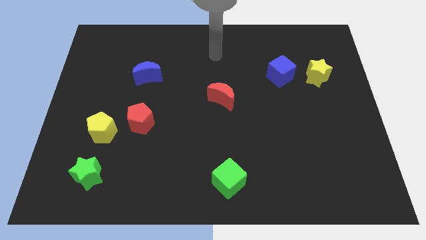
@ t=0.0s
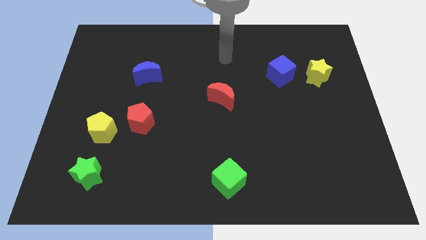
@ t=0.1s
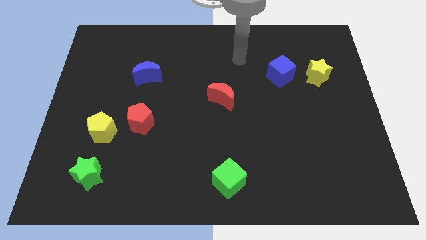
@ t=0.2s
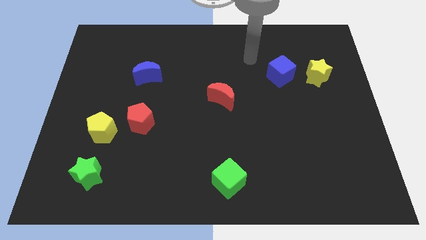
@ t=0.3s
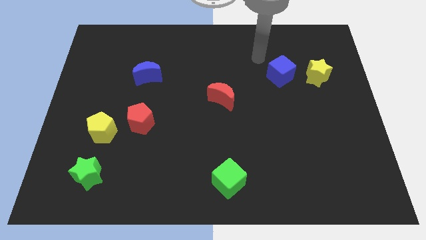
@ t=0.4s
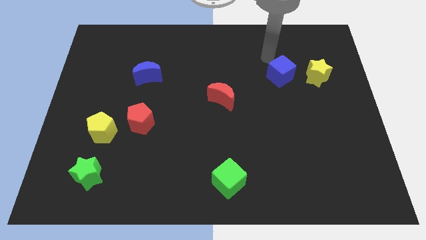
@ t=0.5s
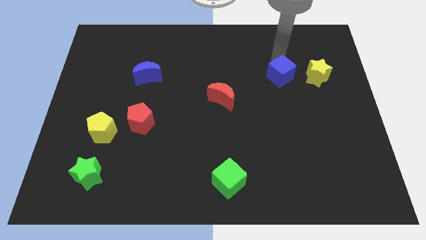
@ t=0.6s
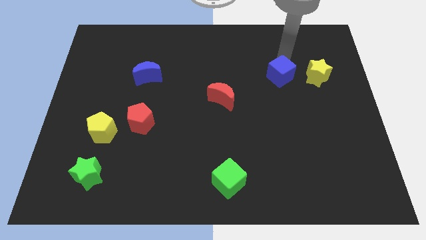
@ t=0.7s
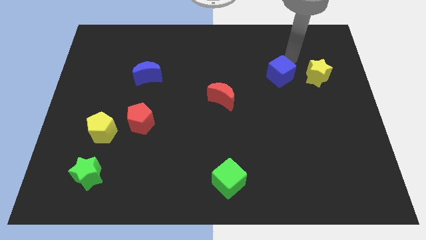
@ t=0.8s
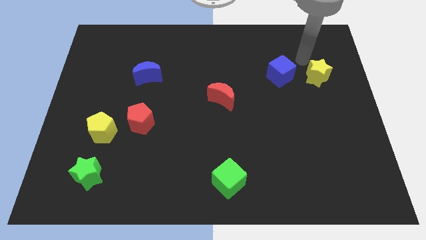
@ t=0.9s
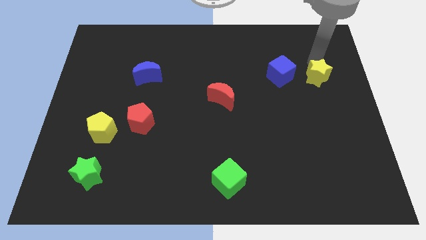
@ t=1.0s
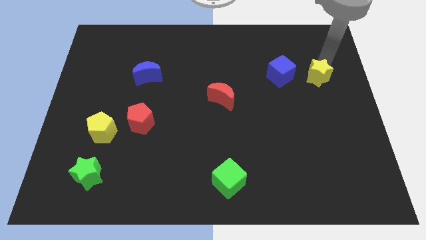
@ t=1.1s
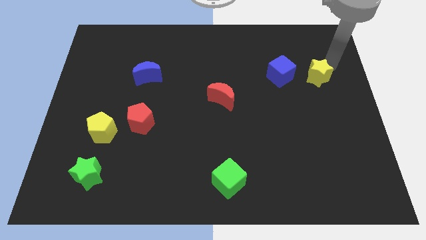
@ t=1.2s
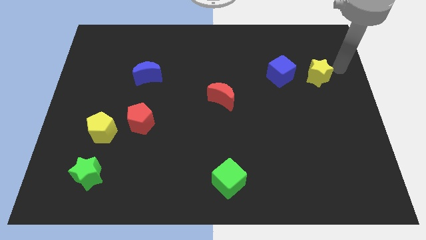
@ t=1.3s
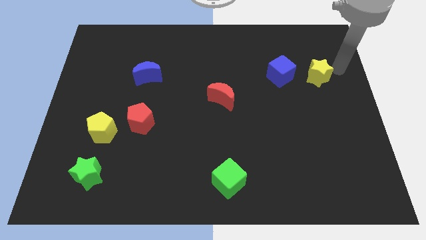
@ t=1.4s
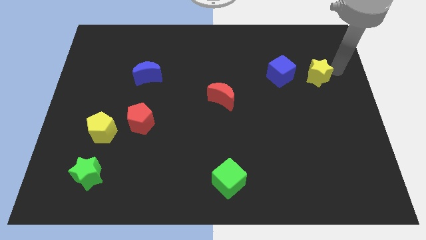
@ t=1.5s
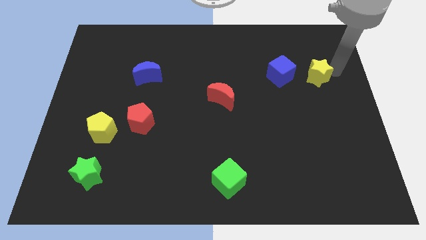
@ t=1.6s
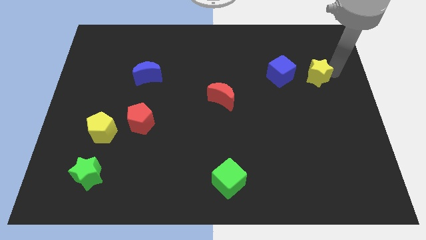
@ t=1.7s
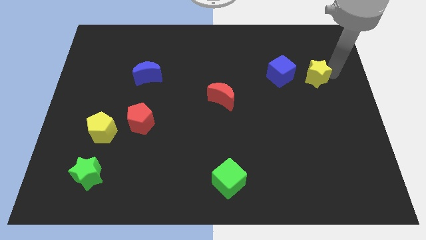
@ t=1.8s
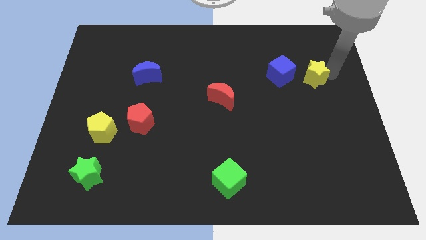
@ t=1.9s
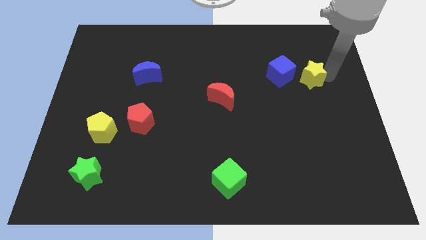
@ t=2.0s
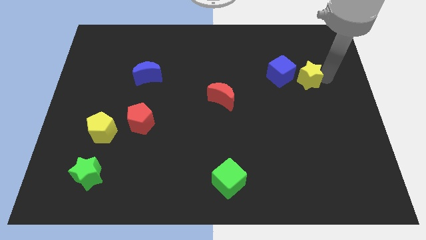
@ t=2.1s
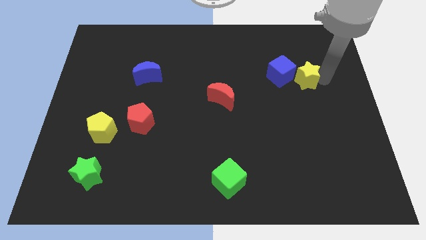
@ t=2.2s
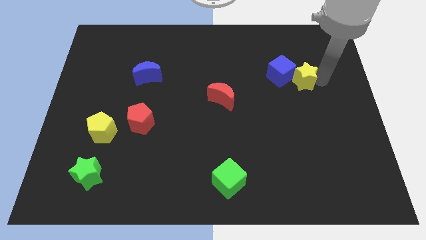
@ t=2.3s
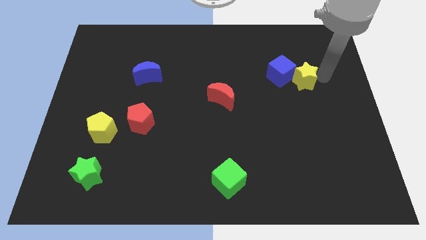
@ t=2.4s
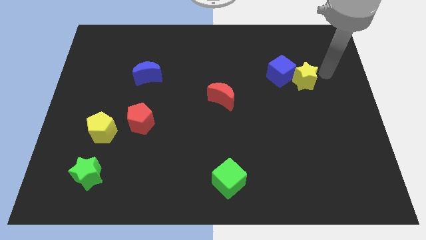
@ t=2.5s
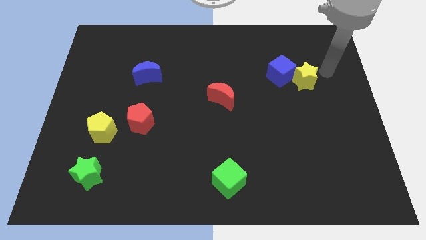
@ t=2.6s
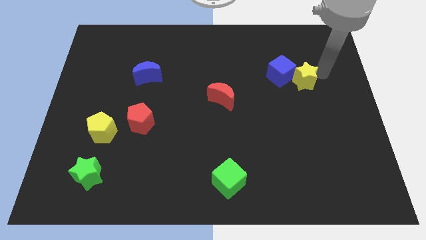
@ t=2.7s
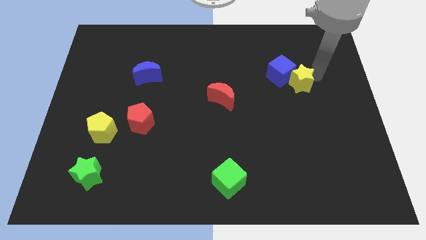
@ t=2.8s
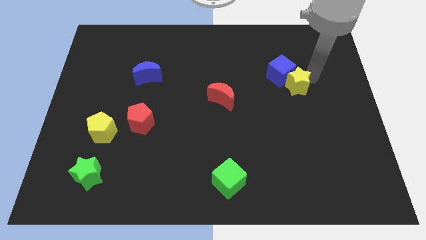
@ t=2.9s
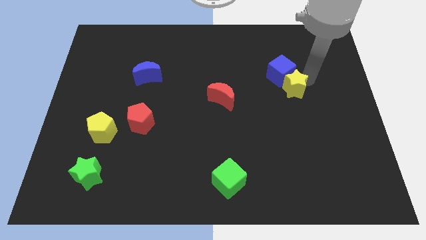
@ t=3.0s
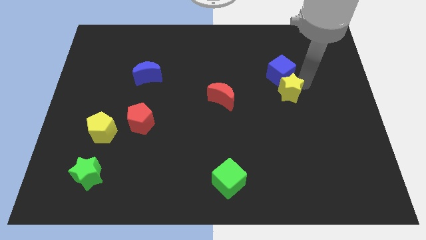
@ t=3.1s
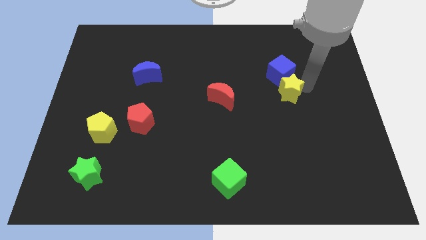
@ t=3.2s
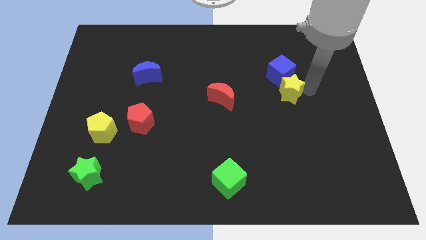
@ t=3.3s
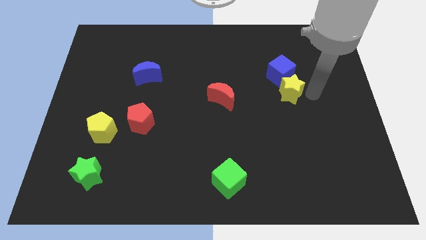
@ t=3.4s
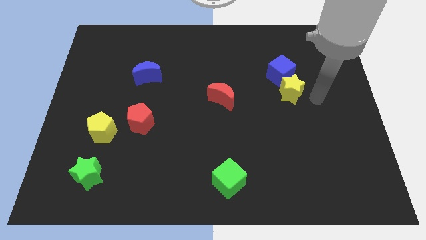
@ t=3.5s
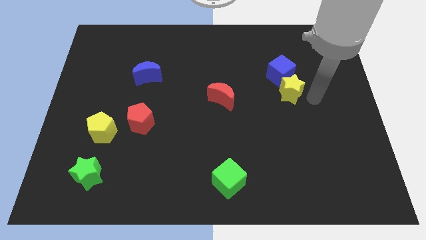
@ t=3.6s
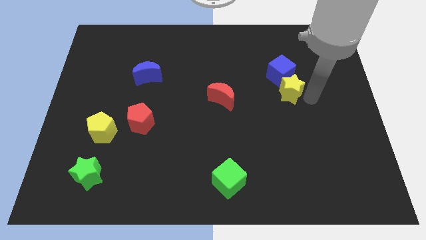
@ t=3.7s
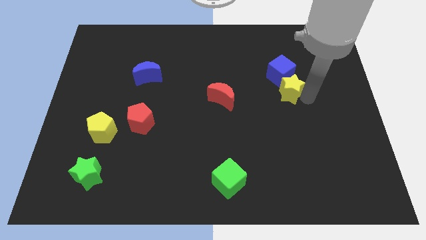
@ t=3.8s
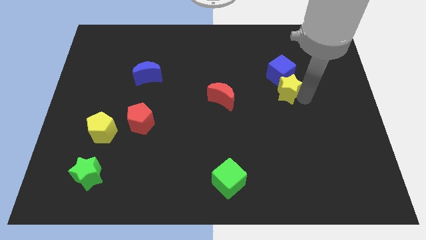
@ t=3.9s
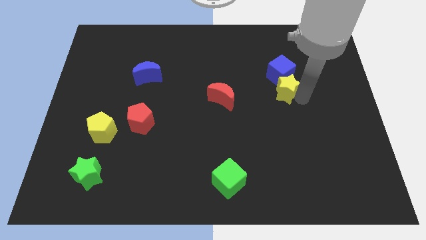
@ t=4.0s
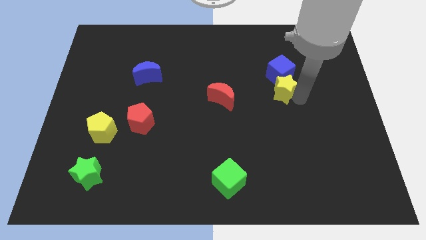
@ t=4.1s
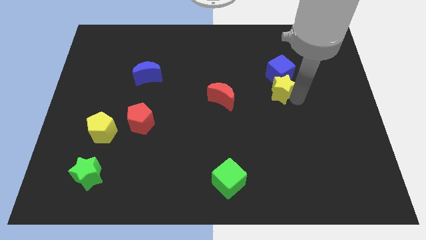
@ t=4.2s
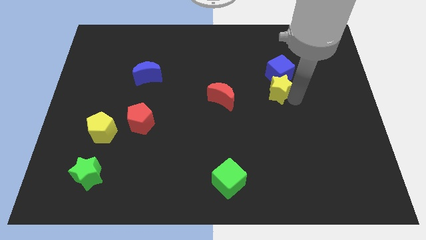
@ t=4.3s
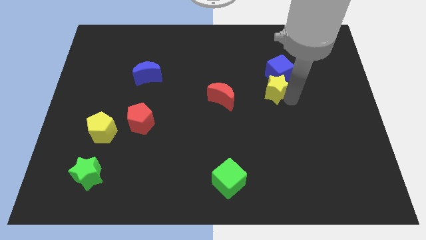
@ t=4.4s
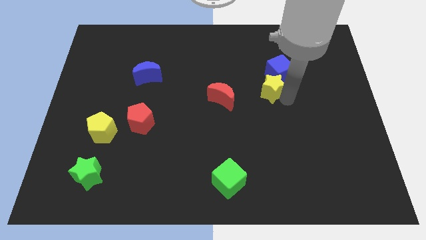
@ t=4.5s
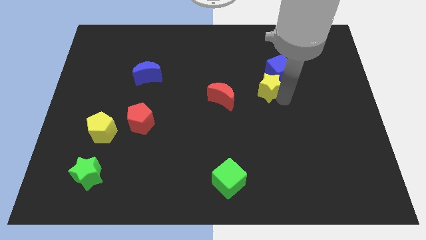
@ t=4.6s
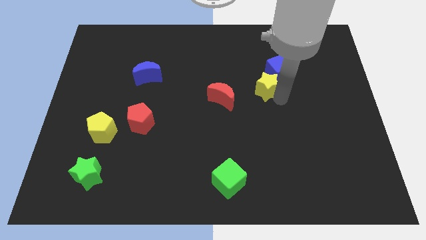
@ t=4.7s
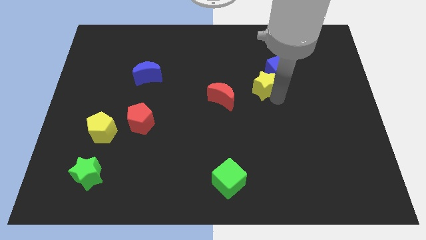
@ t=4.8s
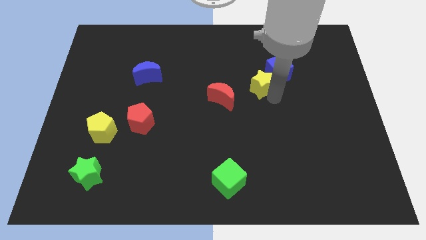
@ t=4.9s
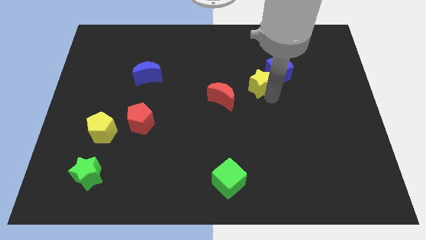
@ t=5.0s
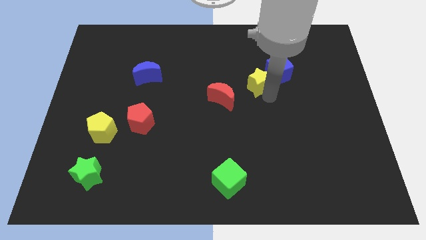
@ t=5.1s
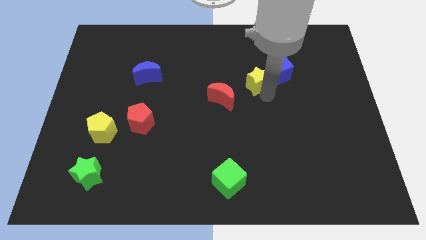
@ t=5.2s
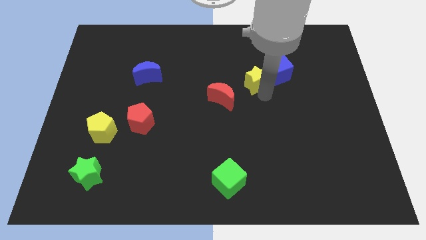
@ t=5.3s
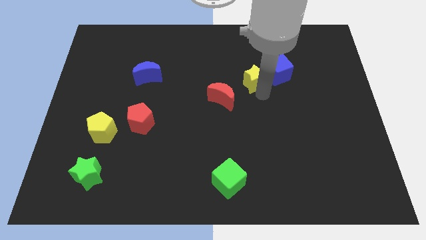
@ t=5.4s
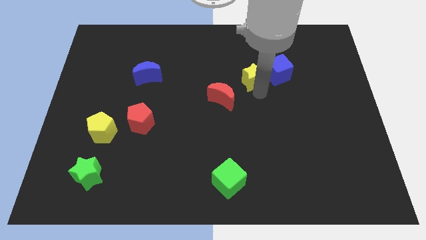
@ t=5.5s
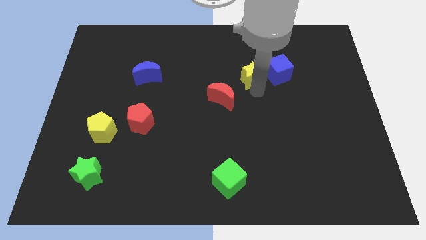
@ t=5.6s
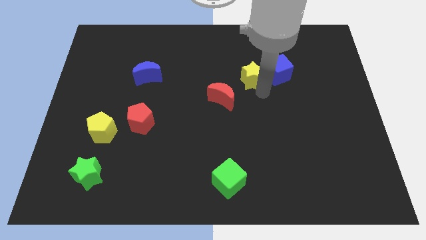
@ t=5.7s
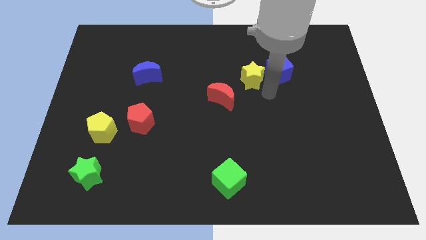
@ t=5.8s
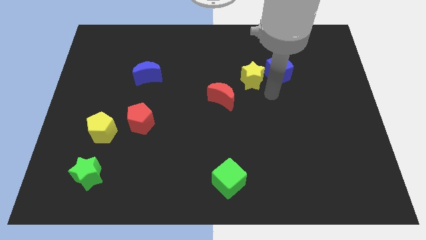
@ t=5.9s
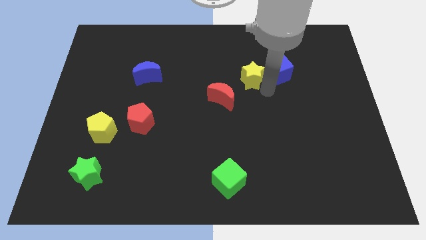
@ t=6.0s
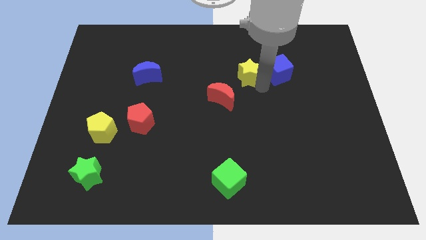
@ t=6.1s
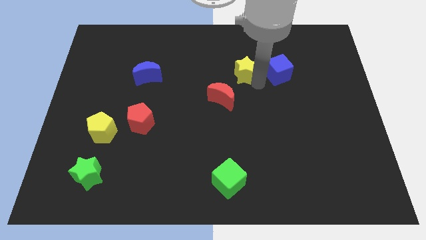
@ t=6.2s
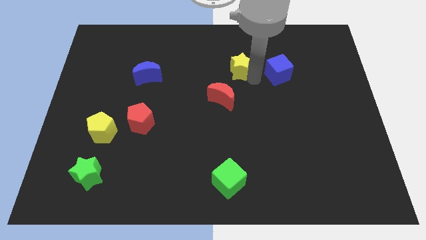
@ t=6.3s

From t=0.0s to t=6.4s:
put the yellow star to the top side of the red moon

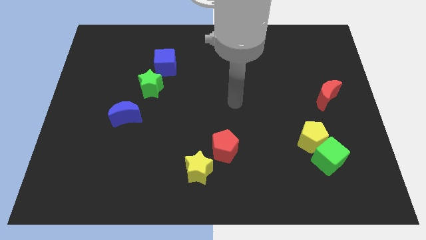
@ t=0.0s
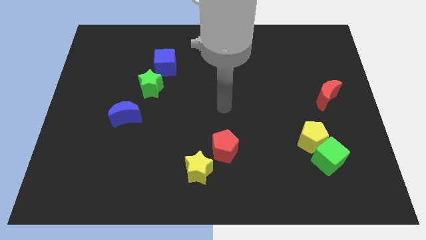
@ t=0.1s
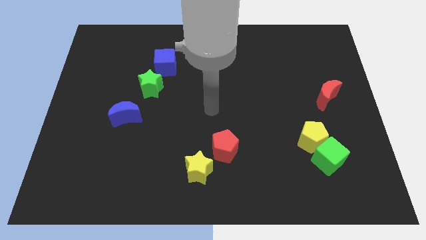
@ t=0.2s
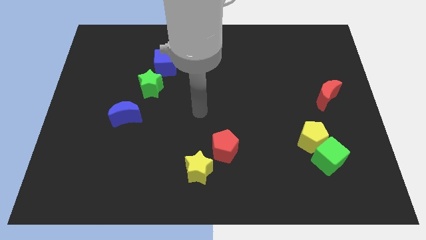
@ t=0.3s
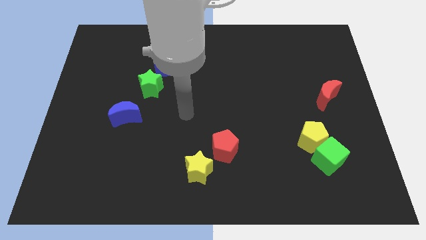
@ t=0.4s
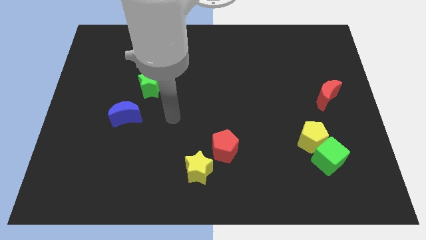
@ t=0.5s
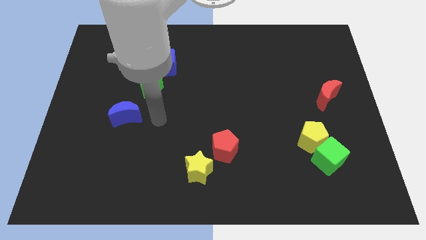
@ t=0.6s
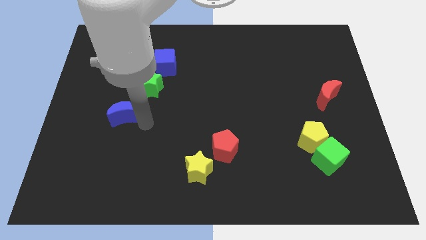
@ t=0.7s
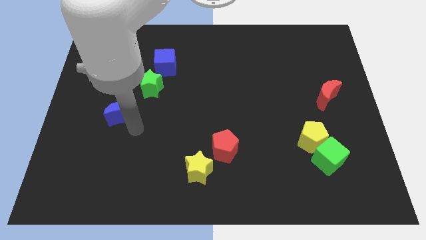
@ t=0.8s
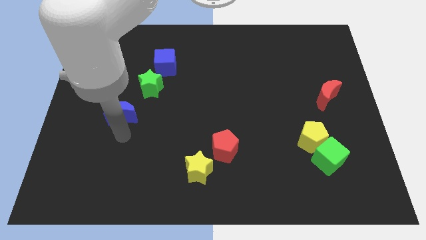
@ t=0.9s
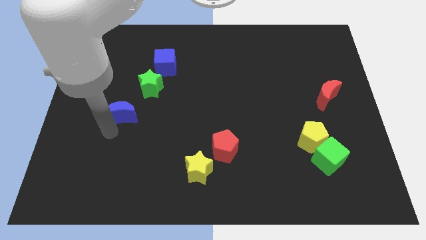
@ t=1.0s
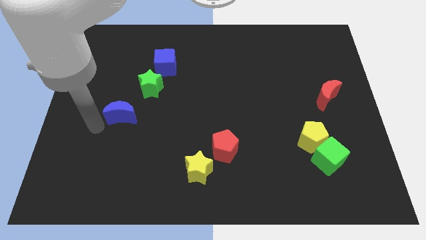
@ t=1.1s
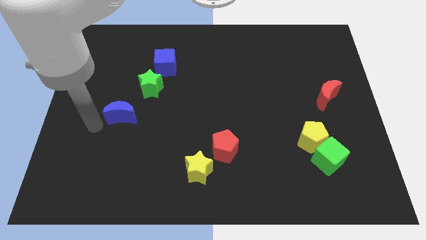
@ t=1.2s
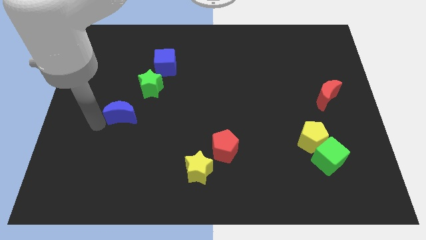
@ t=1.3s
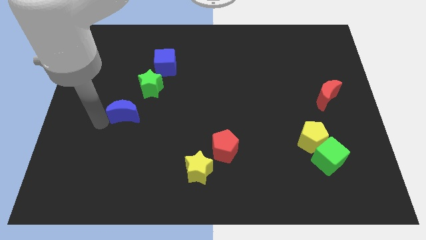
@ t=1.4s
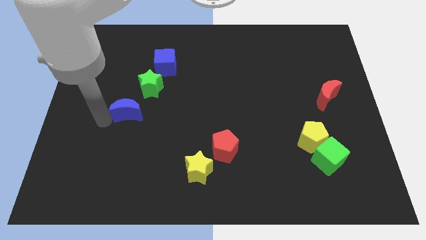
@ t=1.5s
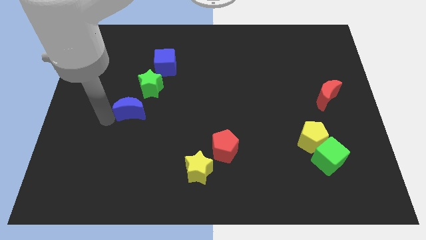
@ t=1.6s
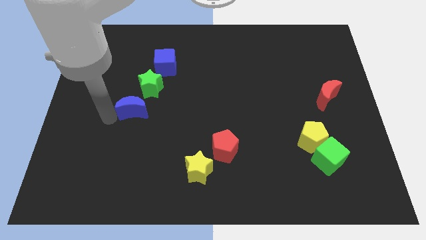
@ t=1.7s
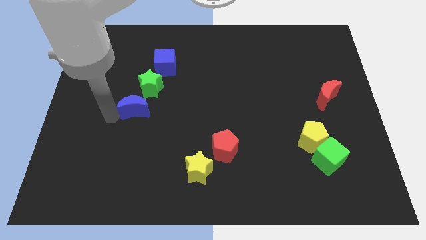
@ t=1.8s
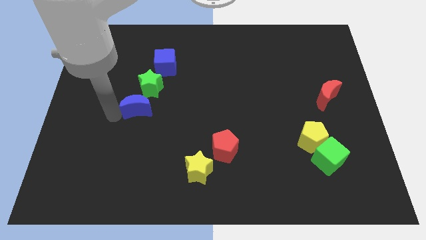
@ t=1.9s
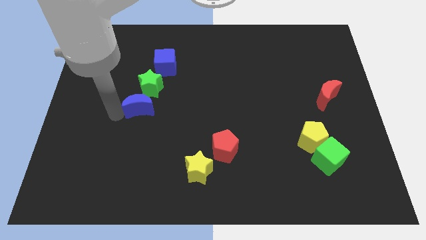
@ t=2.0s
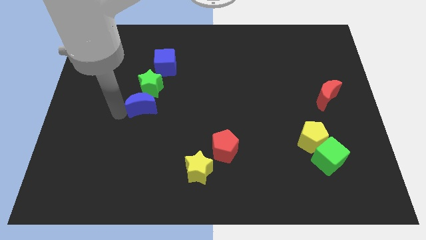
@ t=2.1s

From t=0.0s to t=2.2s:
slide the blue moon to the bottom of the blue cube
